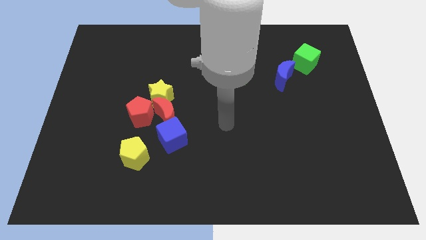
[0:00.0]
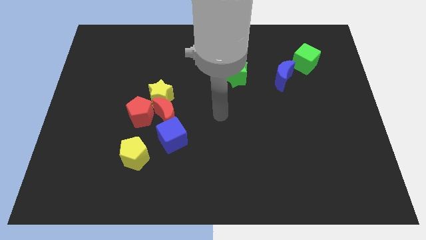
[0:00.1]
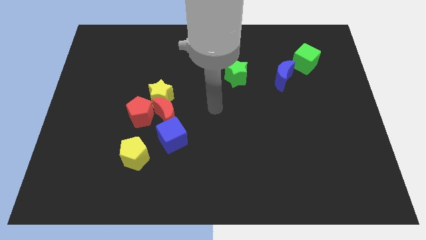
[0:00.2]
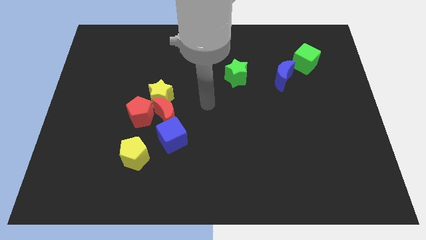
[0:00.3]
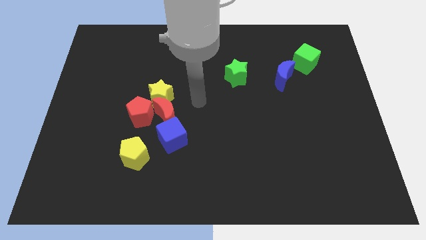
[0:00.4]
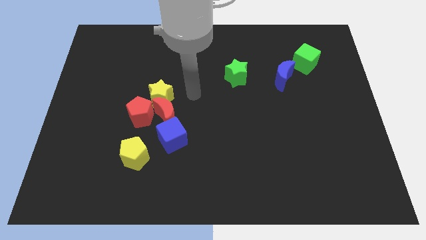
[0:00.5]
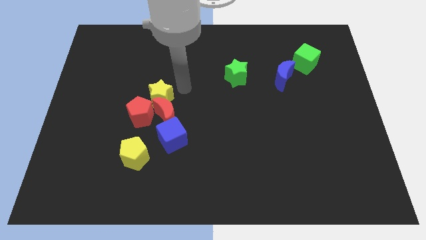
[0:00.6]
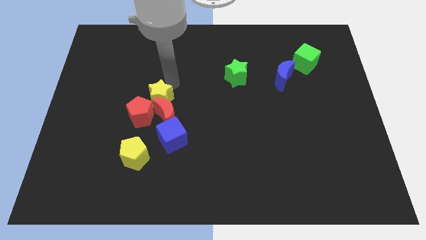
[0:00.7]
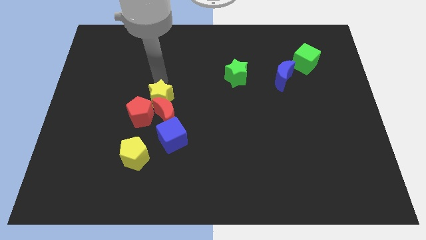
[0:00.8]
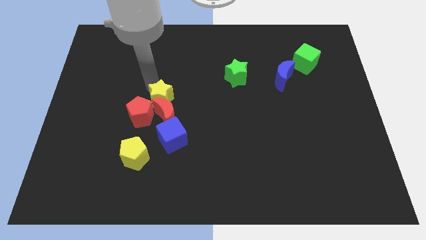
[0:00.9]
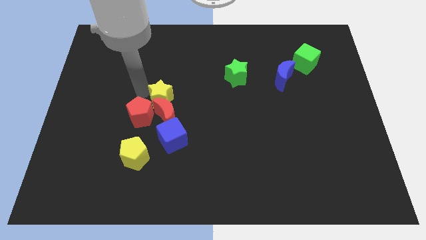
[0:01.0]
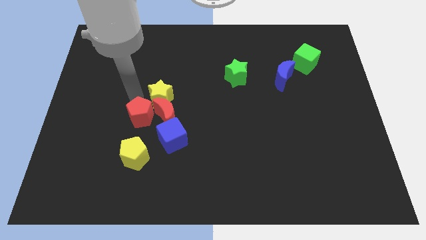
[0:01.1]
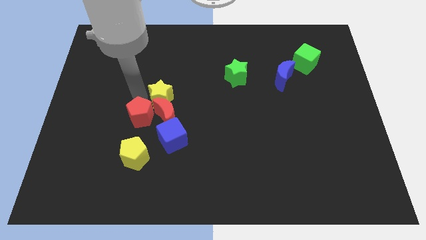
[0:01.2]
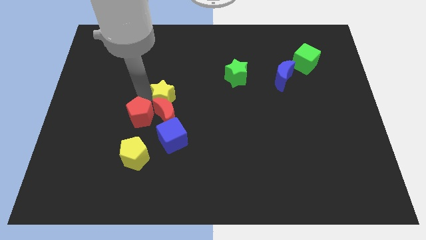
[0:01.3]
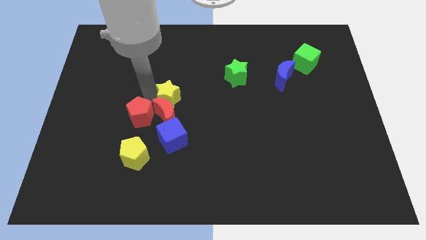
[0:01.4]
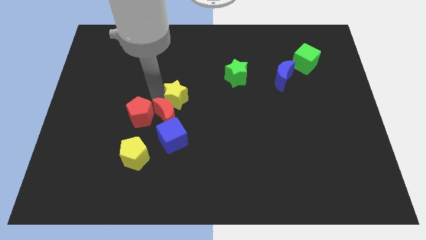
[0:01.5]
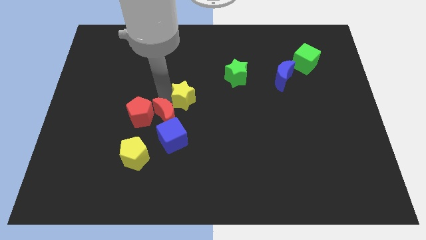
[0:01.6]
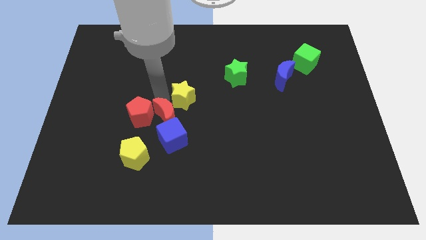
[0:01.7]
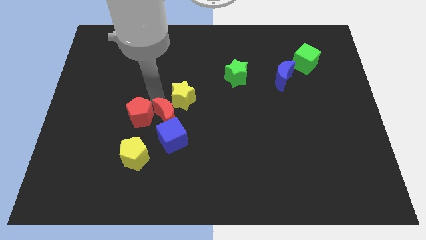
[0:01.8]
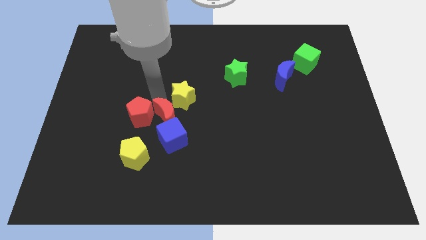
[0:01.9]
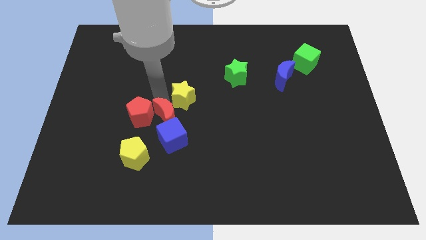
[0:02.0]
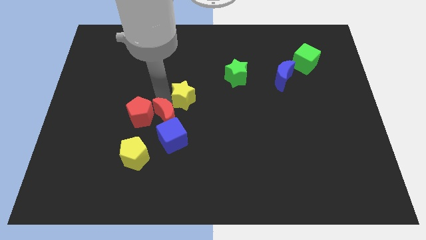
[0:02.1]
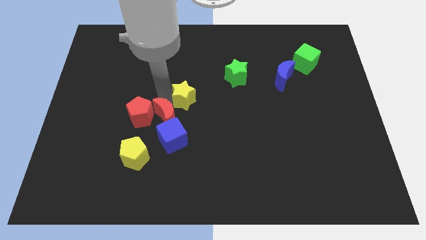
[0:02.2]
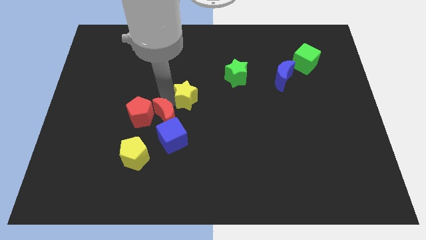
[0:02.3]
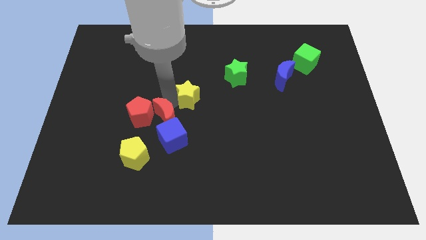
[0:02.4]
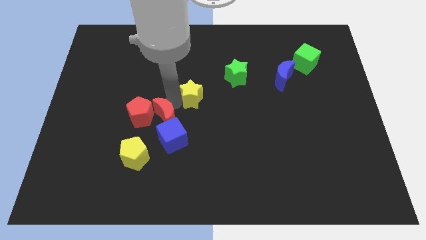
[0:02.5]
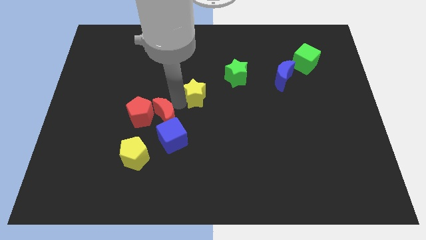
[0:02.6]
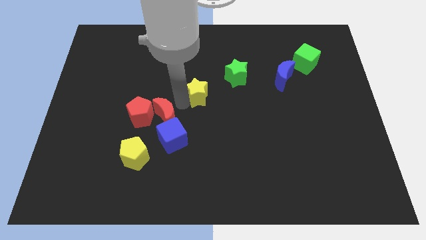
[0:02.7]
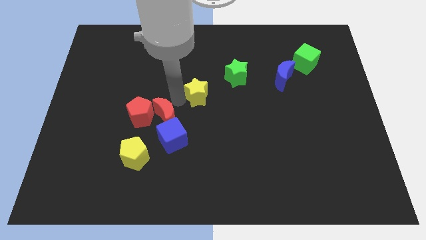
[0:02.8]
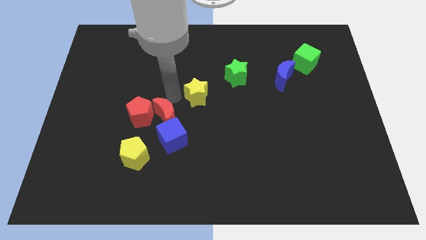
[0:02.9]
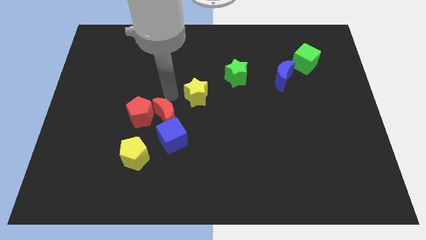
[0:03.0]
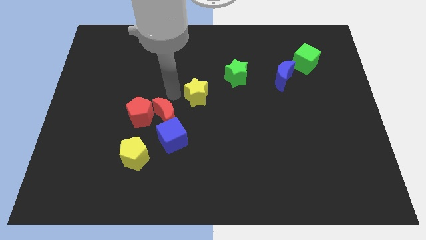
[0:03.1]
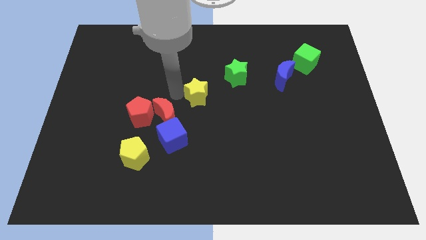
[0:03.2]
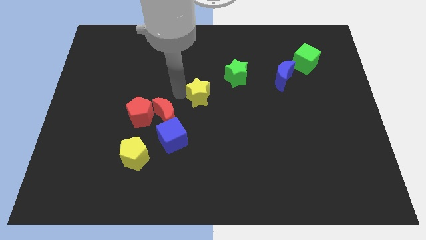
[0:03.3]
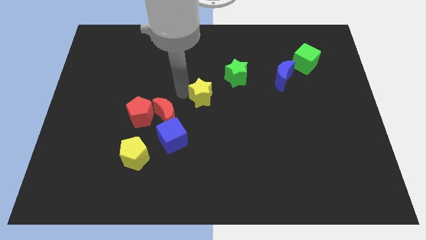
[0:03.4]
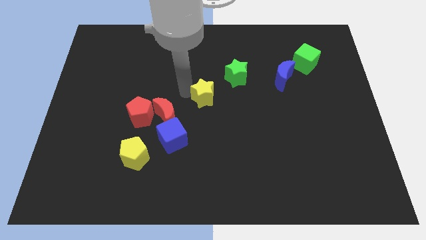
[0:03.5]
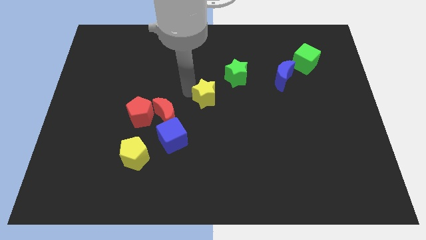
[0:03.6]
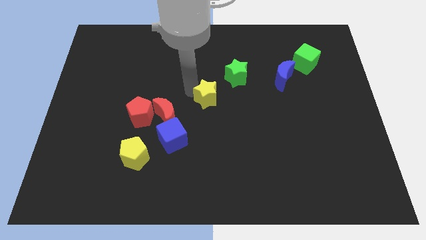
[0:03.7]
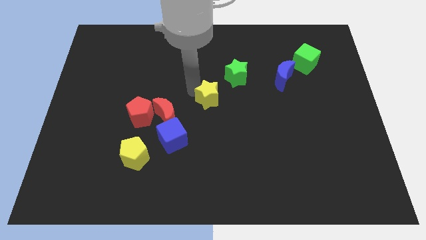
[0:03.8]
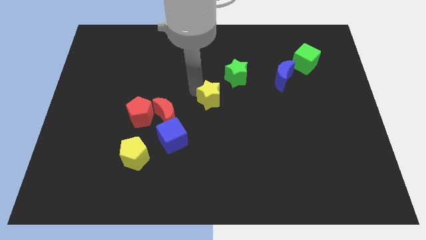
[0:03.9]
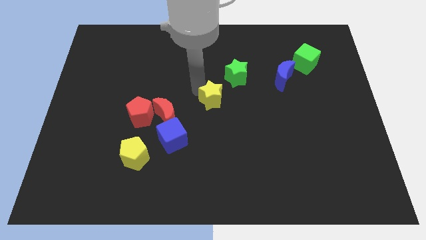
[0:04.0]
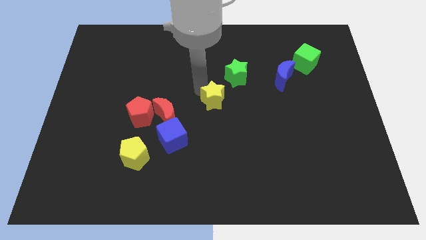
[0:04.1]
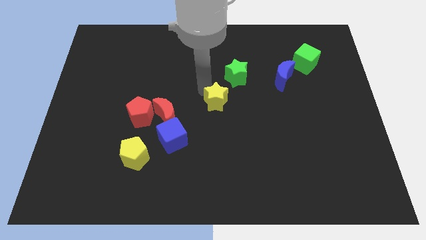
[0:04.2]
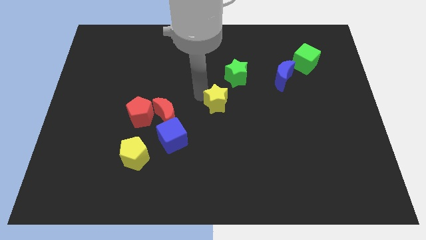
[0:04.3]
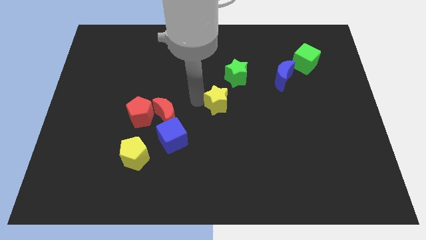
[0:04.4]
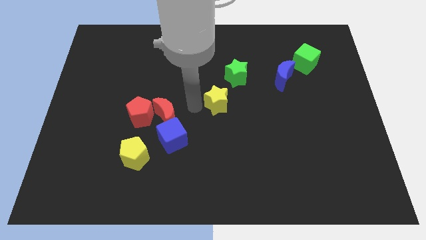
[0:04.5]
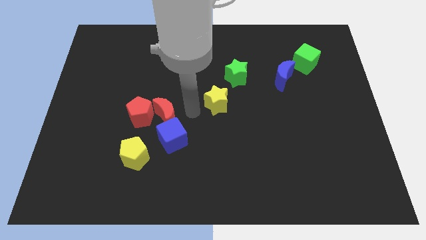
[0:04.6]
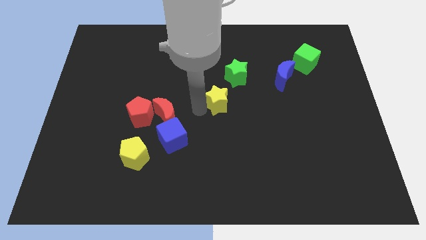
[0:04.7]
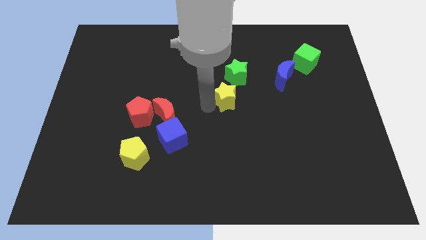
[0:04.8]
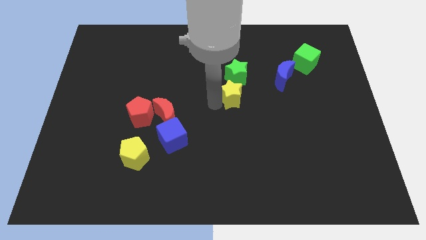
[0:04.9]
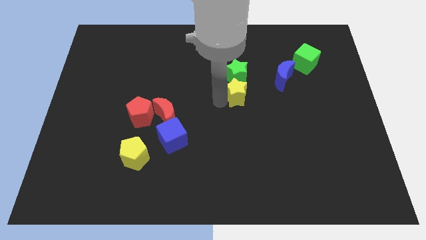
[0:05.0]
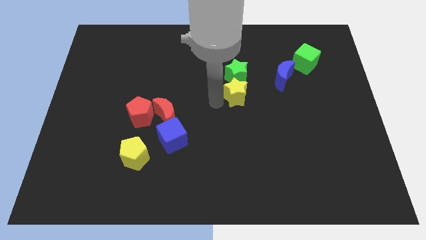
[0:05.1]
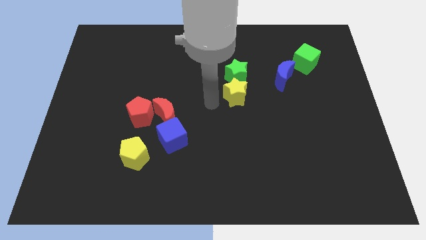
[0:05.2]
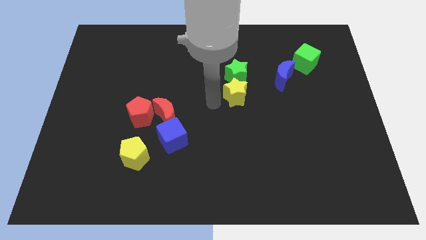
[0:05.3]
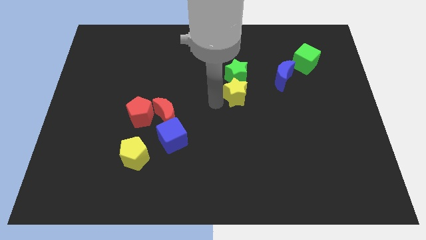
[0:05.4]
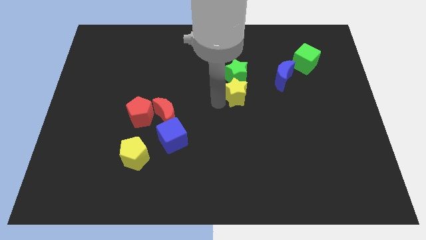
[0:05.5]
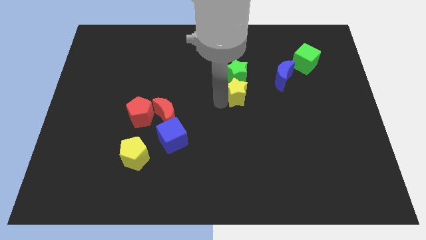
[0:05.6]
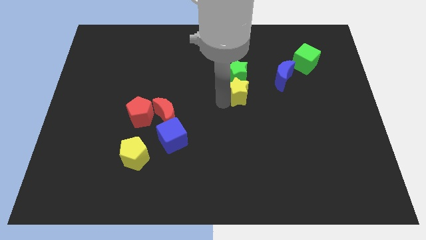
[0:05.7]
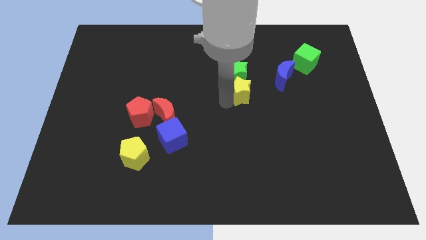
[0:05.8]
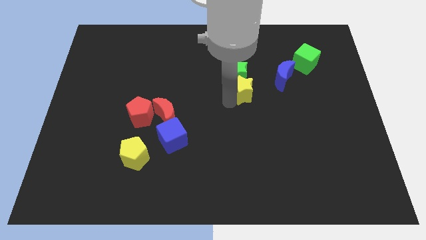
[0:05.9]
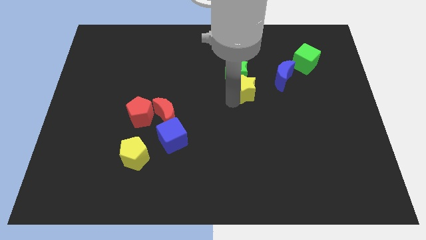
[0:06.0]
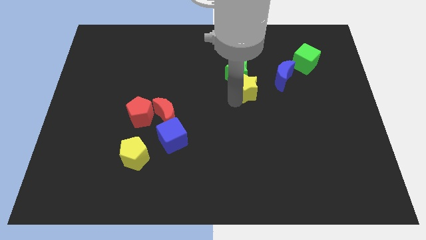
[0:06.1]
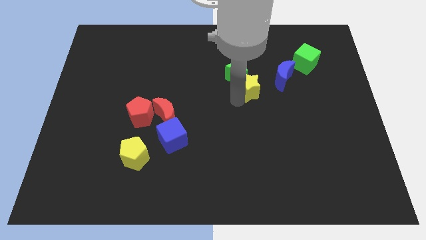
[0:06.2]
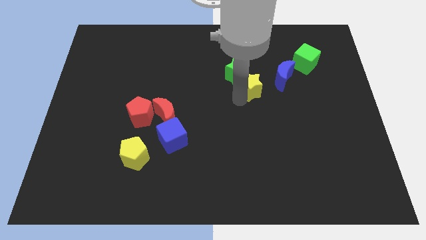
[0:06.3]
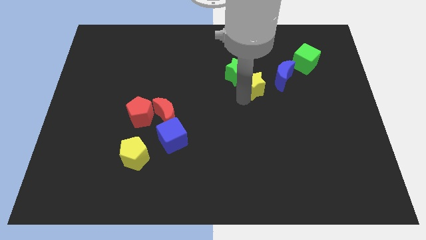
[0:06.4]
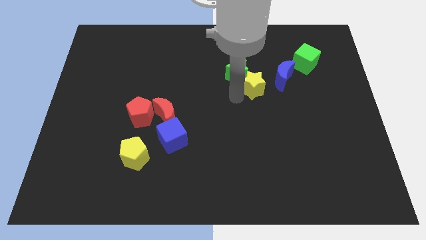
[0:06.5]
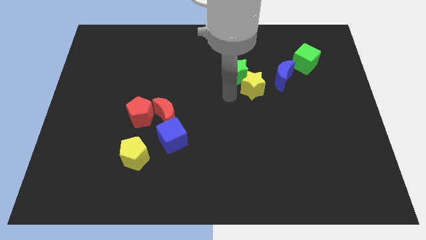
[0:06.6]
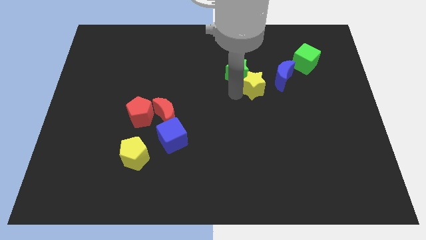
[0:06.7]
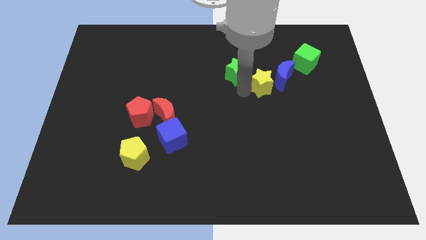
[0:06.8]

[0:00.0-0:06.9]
put the yellow star to the blue moon

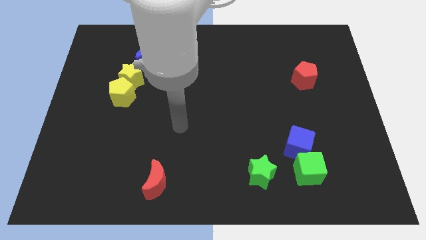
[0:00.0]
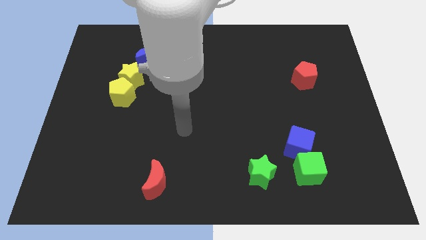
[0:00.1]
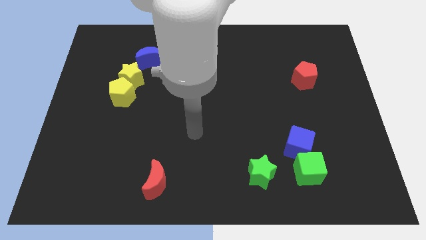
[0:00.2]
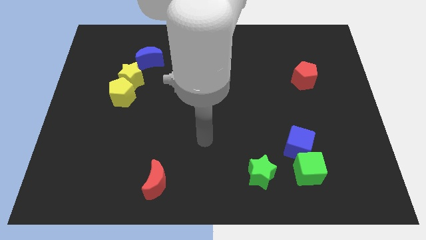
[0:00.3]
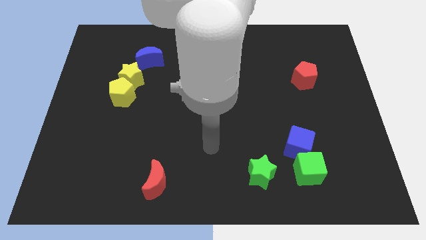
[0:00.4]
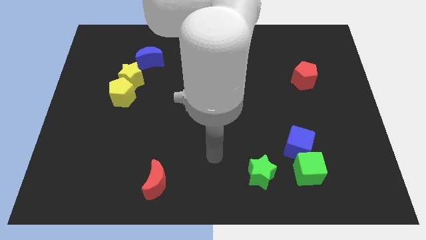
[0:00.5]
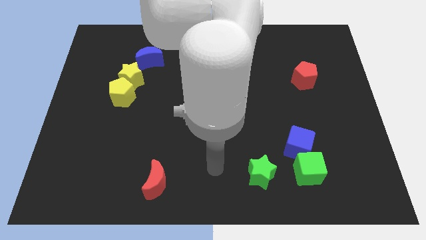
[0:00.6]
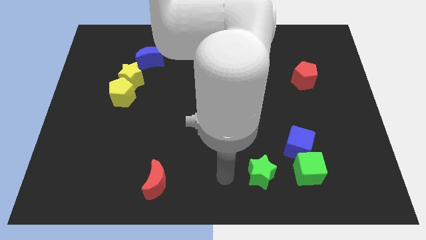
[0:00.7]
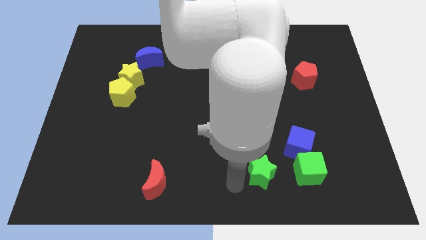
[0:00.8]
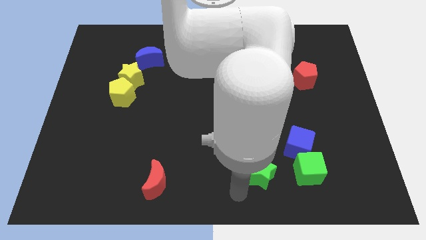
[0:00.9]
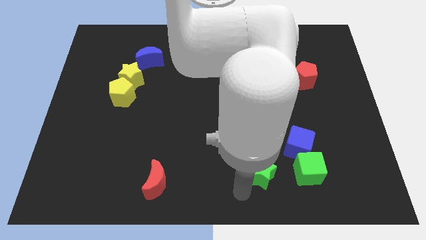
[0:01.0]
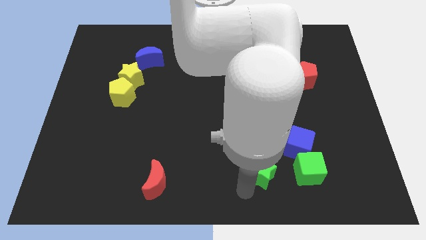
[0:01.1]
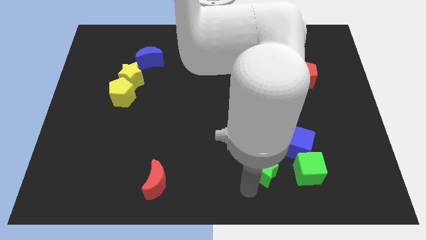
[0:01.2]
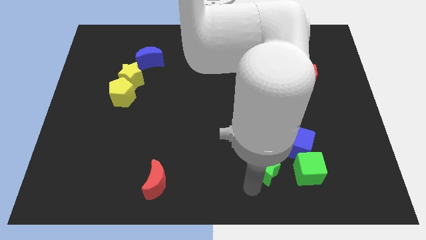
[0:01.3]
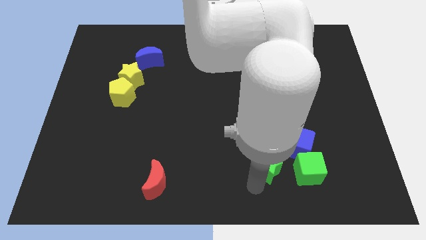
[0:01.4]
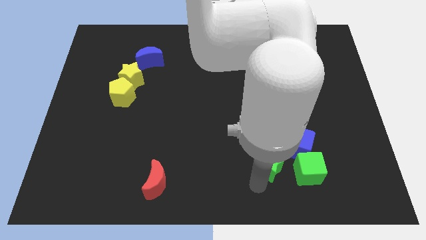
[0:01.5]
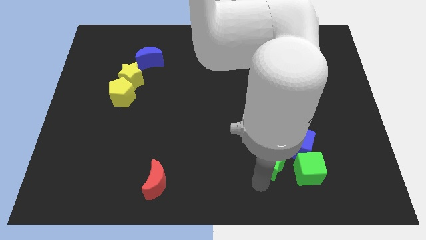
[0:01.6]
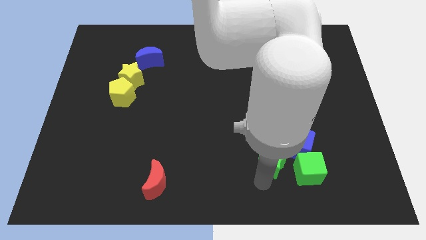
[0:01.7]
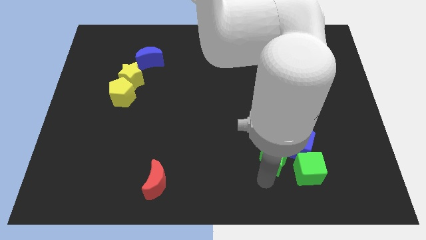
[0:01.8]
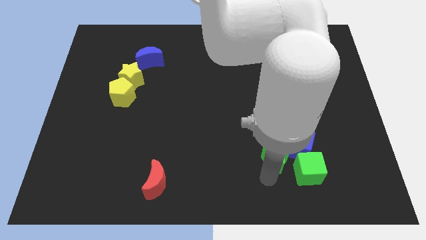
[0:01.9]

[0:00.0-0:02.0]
put the green star next to the blue cube
